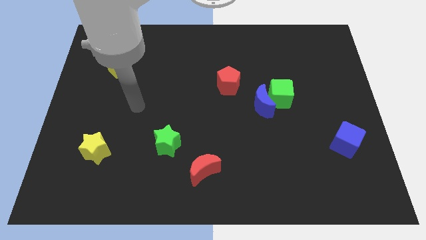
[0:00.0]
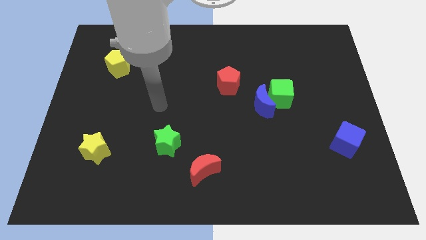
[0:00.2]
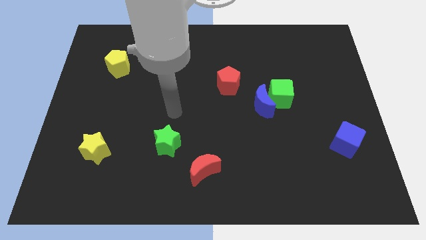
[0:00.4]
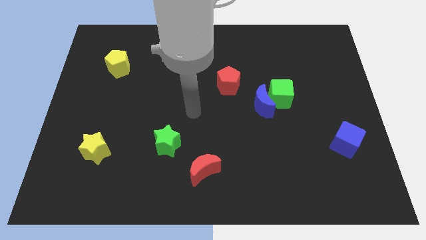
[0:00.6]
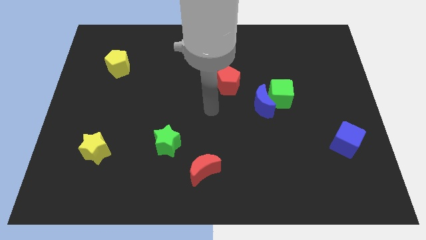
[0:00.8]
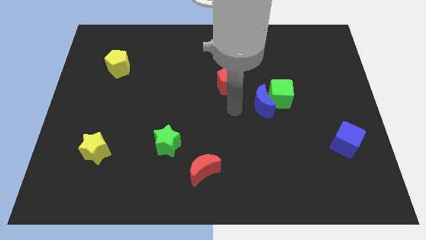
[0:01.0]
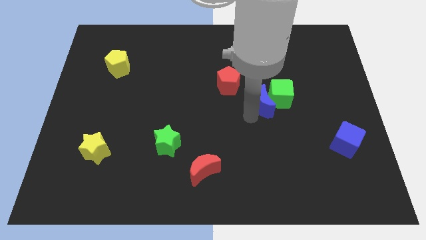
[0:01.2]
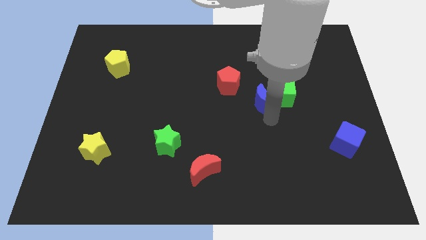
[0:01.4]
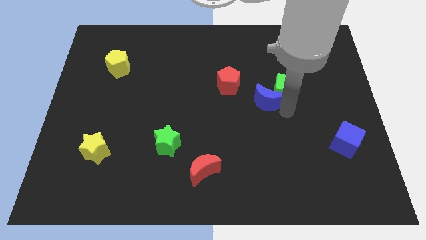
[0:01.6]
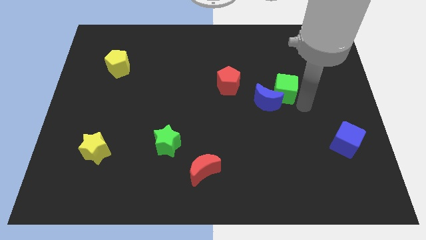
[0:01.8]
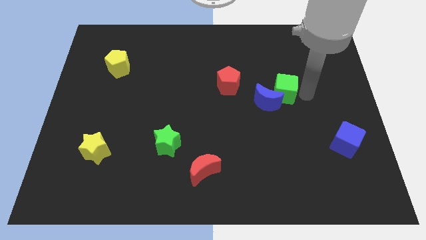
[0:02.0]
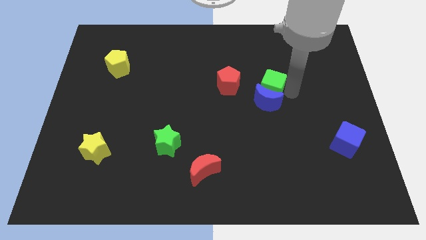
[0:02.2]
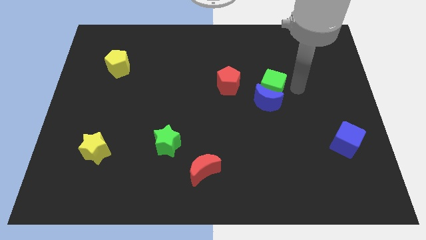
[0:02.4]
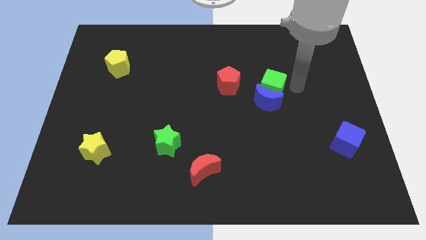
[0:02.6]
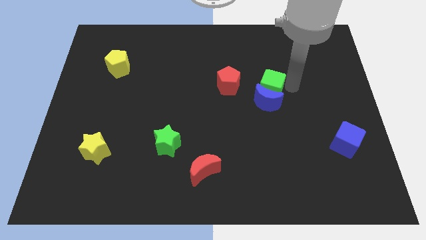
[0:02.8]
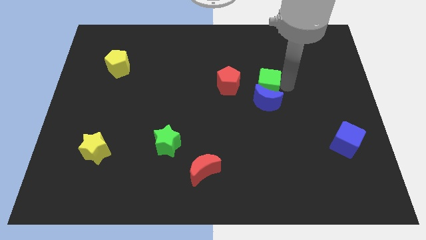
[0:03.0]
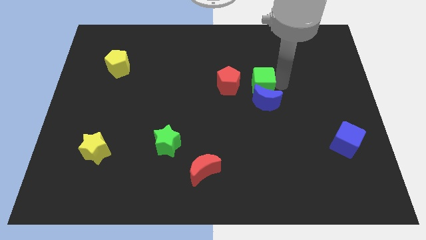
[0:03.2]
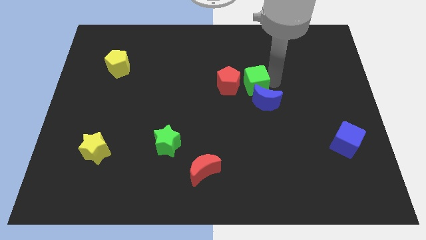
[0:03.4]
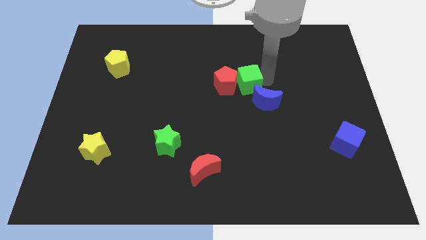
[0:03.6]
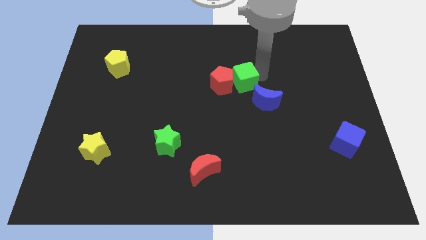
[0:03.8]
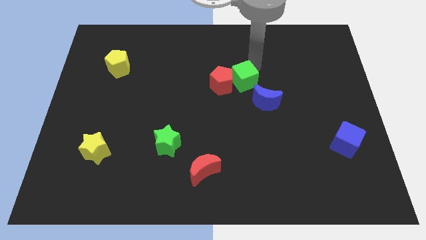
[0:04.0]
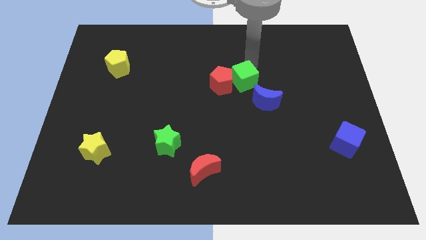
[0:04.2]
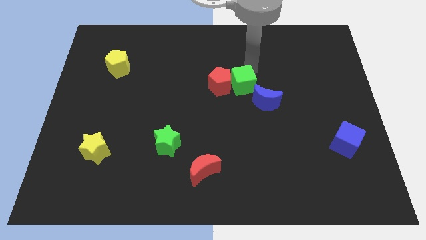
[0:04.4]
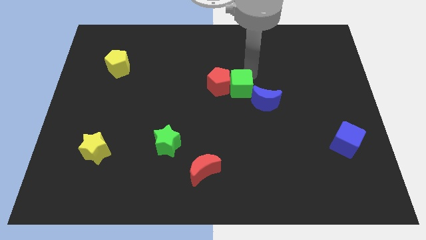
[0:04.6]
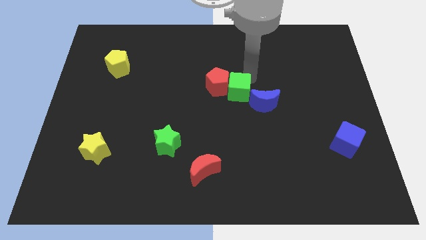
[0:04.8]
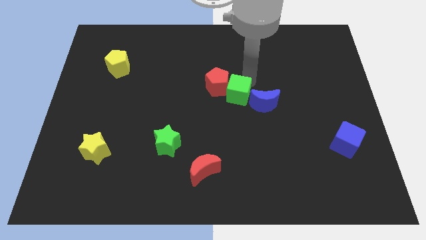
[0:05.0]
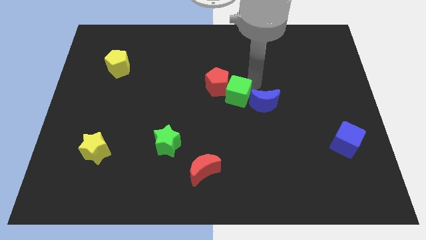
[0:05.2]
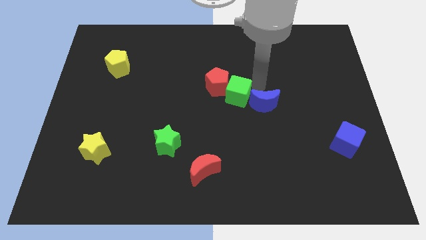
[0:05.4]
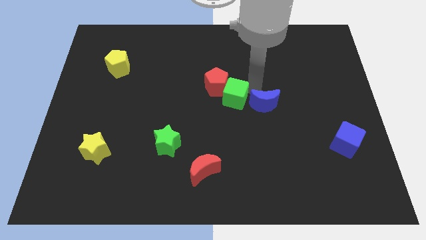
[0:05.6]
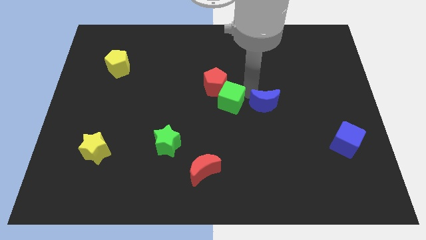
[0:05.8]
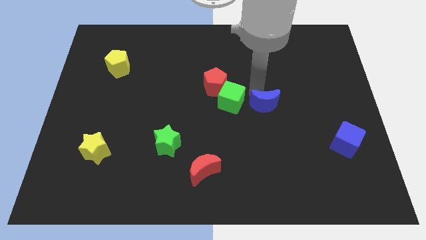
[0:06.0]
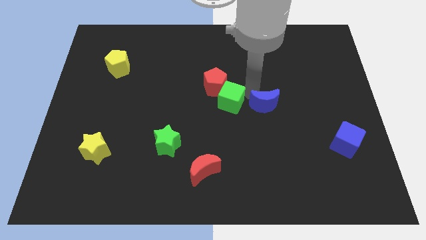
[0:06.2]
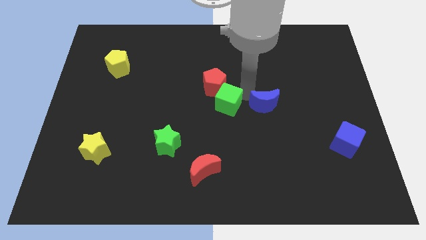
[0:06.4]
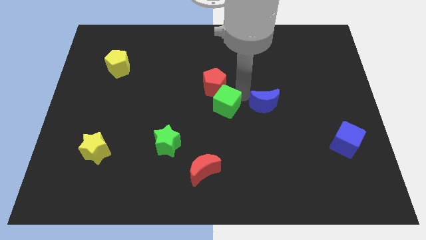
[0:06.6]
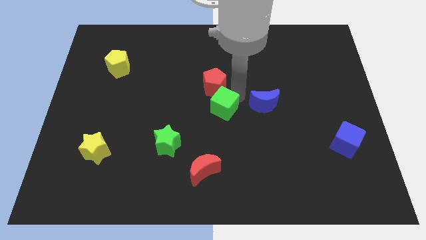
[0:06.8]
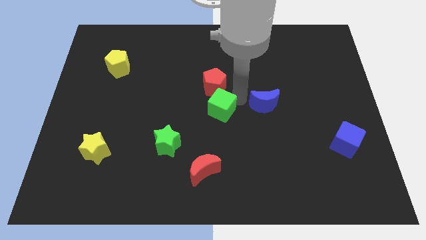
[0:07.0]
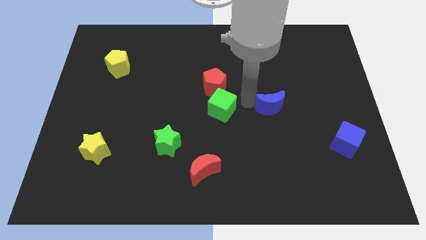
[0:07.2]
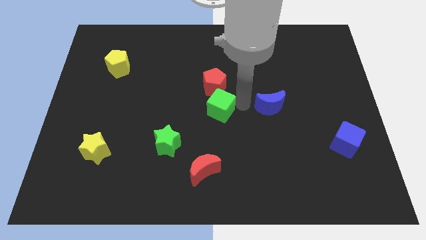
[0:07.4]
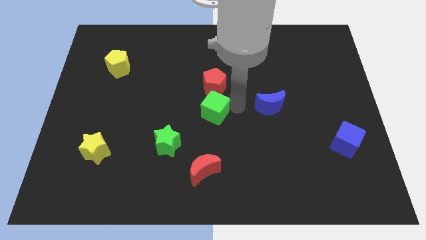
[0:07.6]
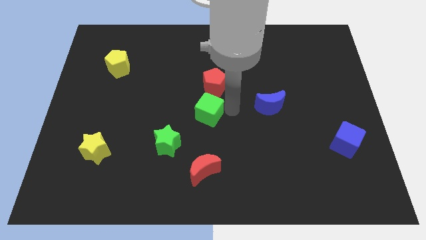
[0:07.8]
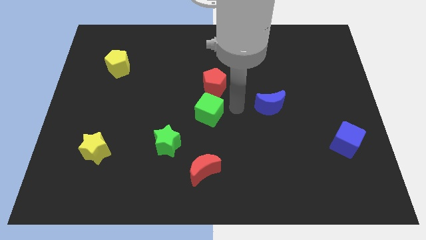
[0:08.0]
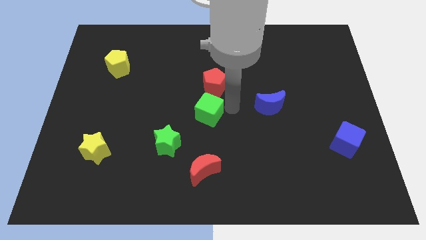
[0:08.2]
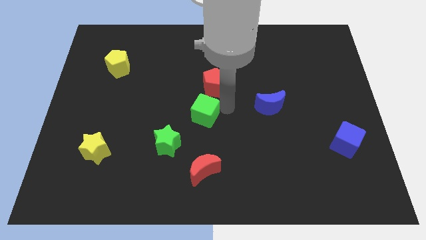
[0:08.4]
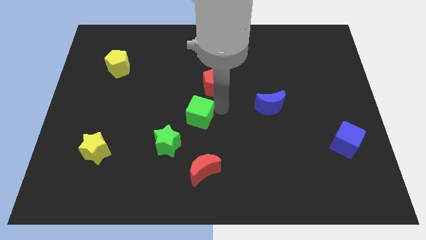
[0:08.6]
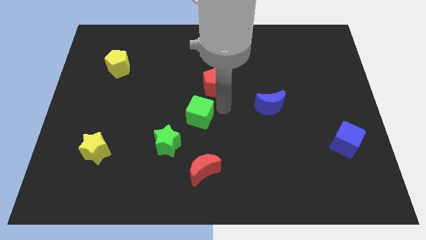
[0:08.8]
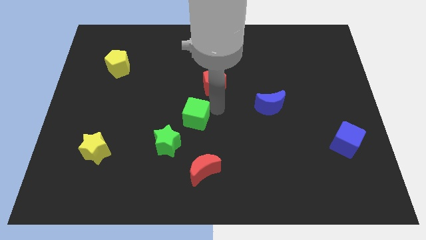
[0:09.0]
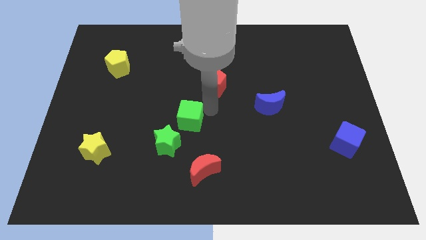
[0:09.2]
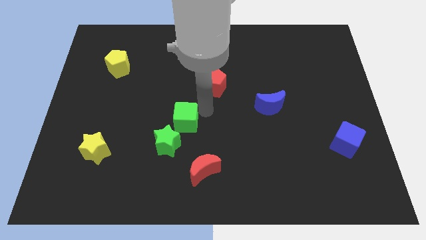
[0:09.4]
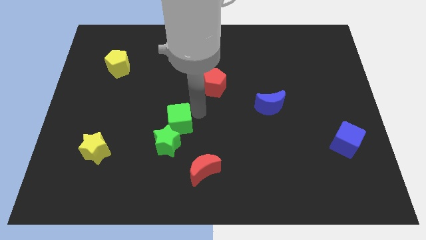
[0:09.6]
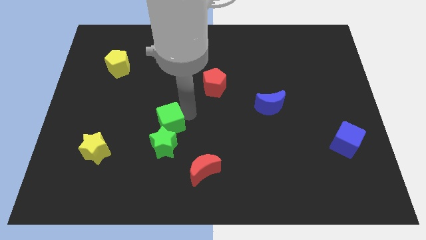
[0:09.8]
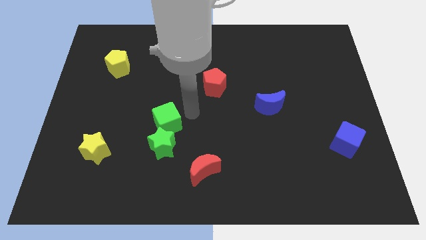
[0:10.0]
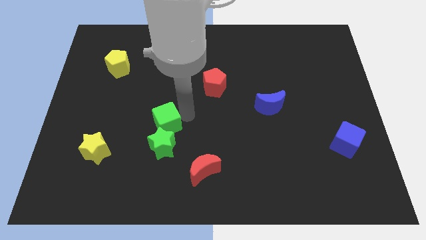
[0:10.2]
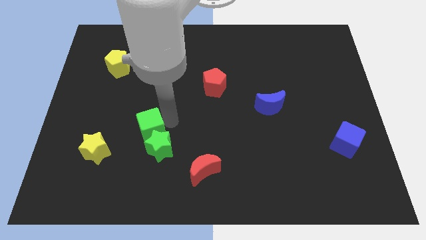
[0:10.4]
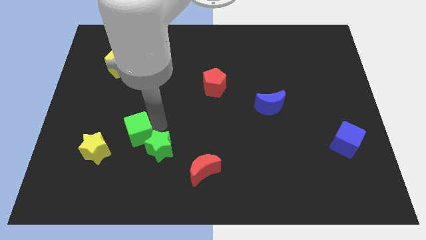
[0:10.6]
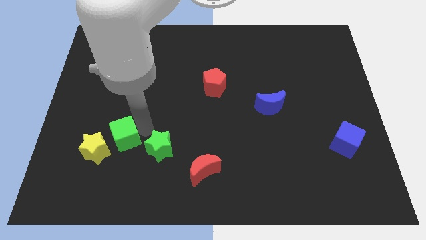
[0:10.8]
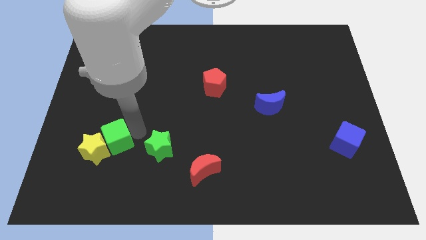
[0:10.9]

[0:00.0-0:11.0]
slide the green cube close to the yellow star

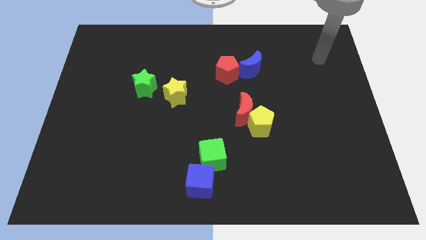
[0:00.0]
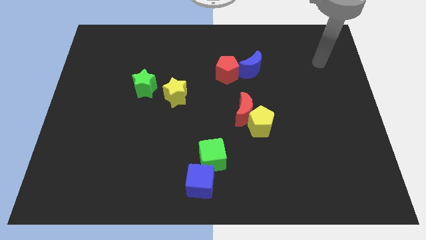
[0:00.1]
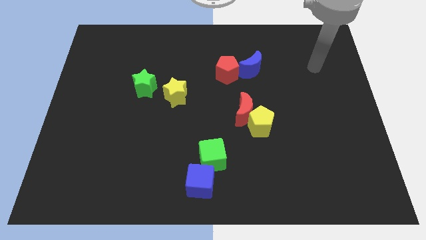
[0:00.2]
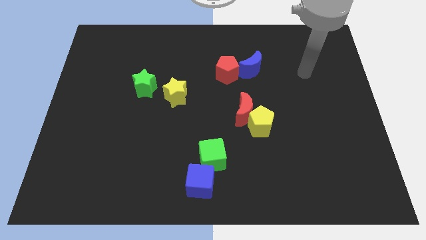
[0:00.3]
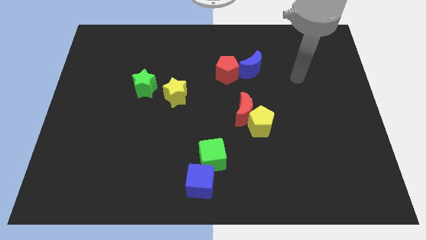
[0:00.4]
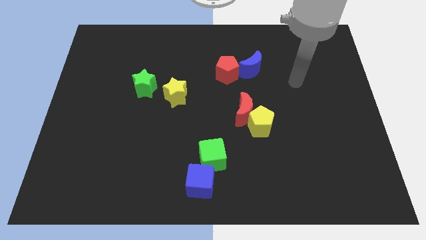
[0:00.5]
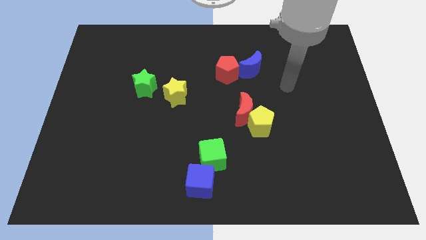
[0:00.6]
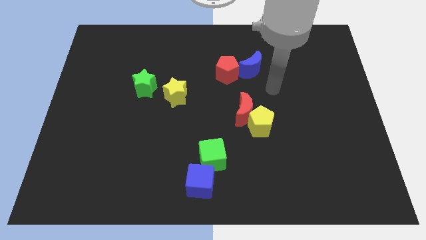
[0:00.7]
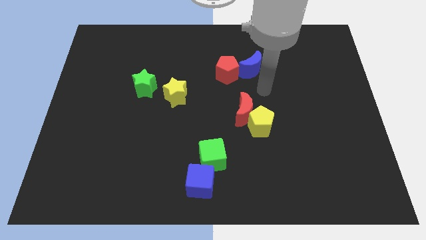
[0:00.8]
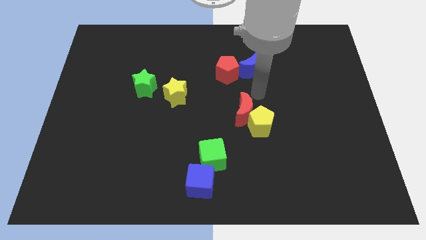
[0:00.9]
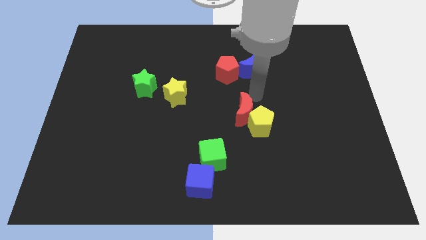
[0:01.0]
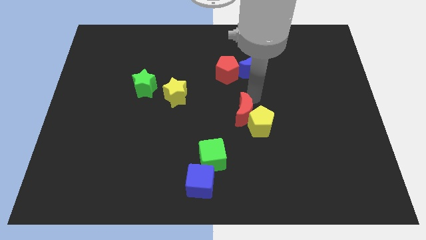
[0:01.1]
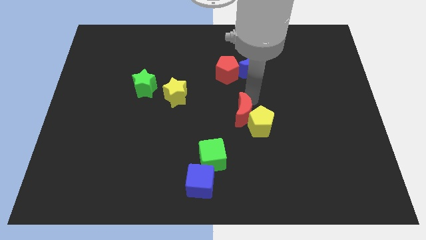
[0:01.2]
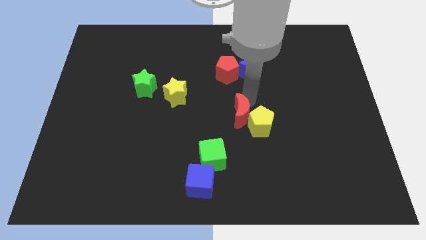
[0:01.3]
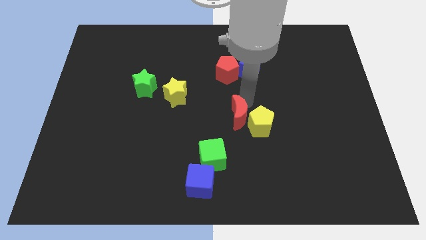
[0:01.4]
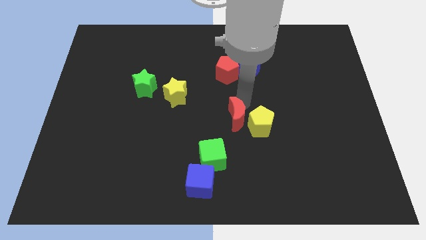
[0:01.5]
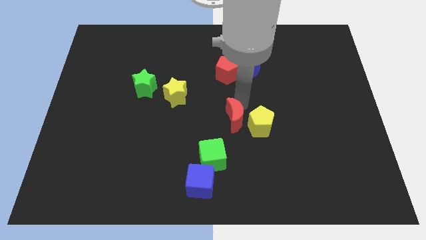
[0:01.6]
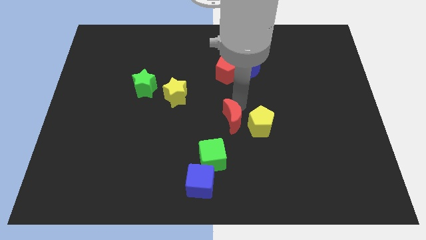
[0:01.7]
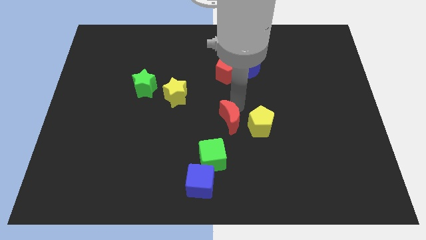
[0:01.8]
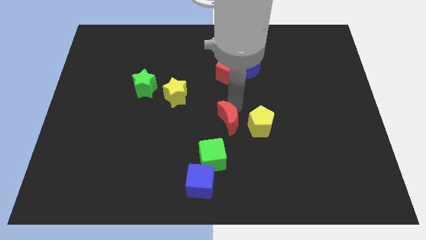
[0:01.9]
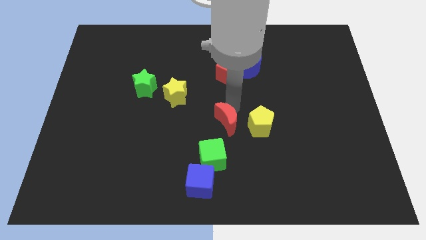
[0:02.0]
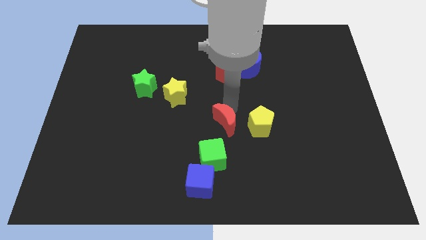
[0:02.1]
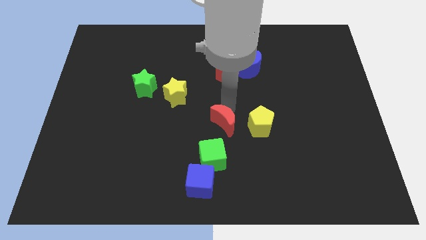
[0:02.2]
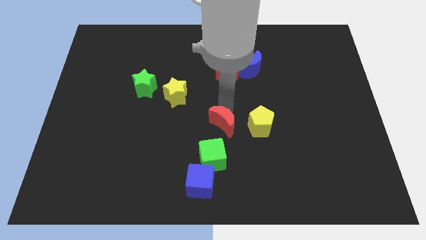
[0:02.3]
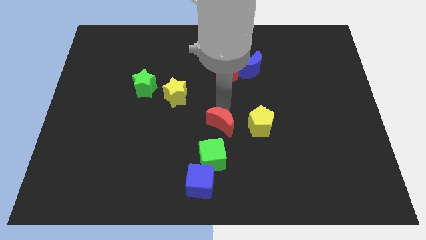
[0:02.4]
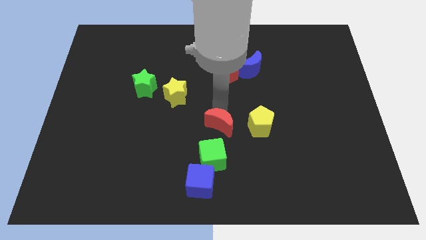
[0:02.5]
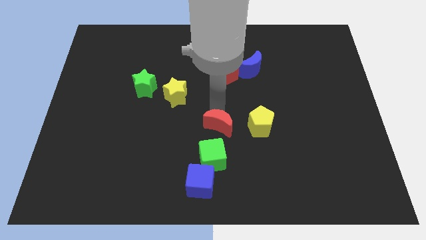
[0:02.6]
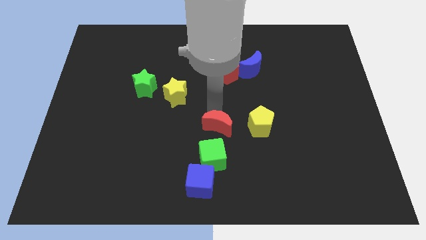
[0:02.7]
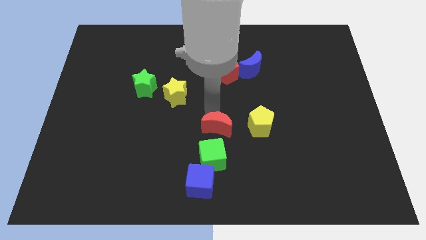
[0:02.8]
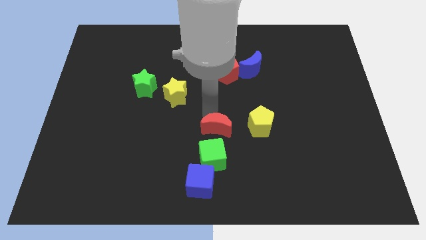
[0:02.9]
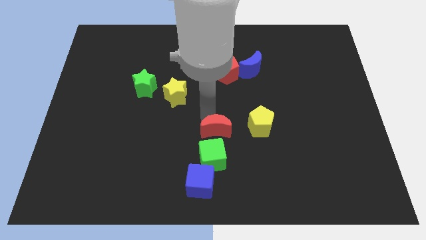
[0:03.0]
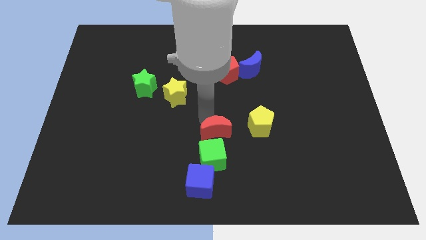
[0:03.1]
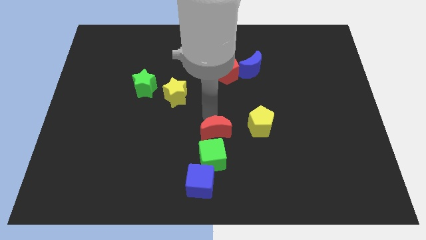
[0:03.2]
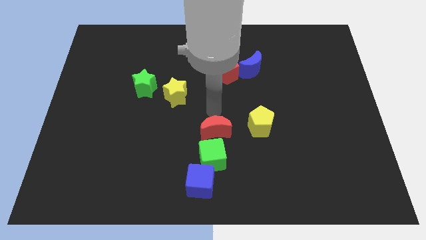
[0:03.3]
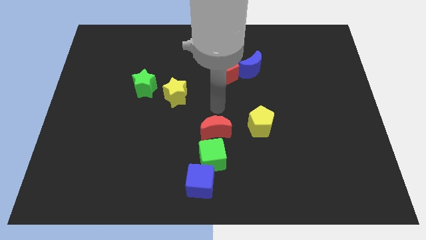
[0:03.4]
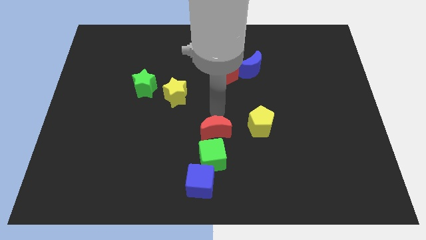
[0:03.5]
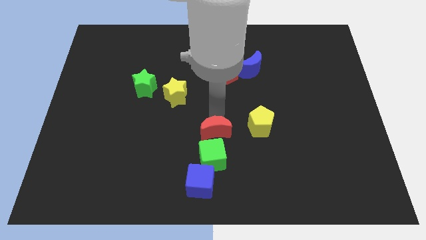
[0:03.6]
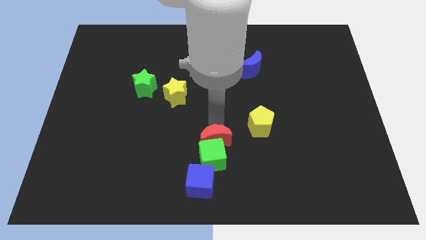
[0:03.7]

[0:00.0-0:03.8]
push the red moon towards the green cube
